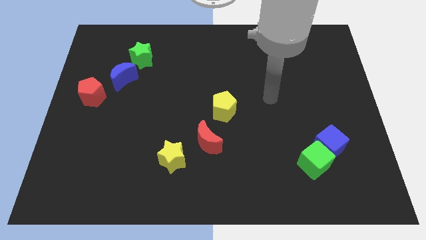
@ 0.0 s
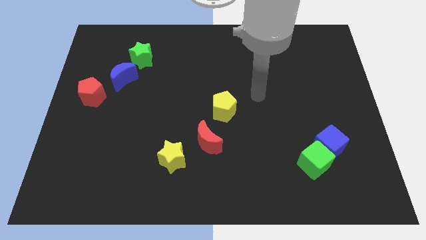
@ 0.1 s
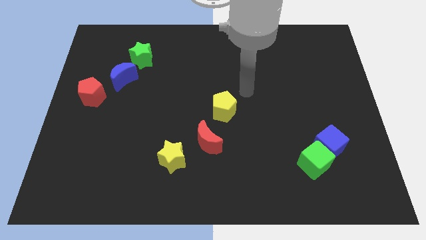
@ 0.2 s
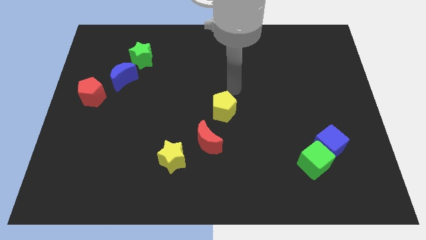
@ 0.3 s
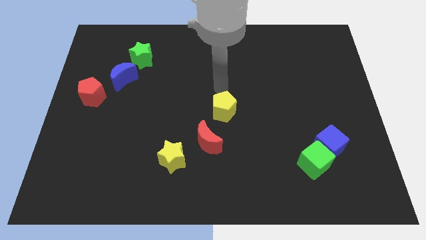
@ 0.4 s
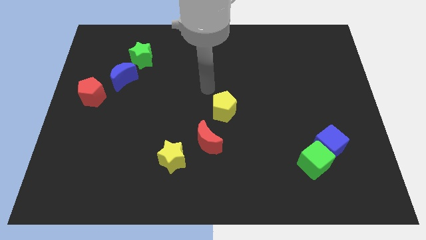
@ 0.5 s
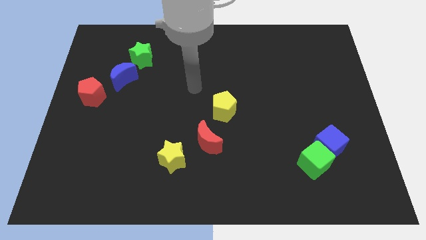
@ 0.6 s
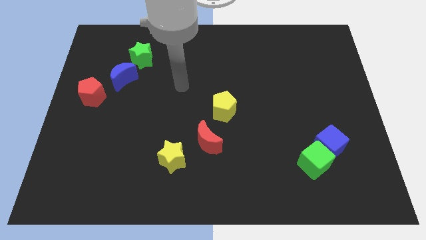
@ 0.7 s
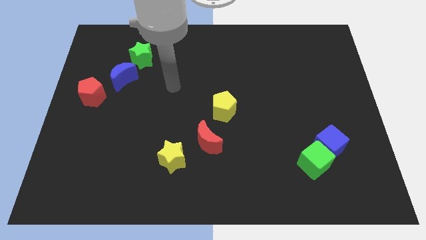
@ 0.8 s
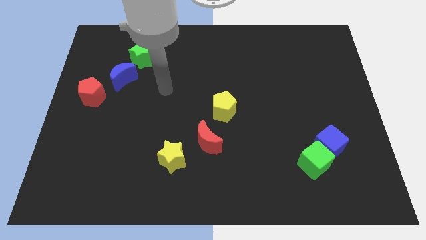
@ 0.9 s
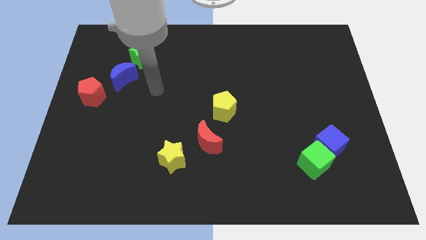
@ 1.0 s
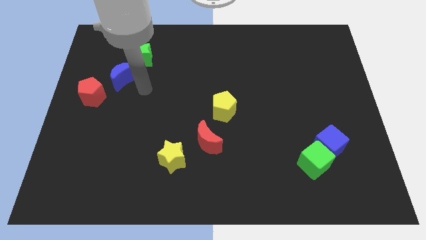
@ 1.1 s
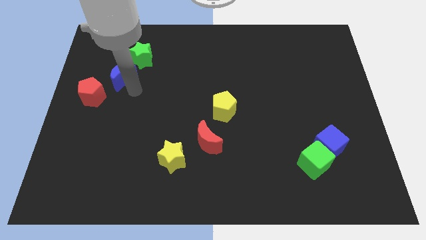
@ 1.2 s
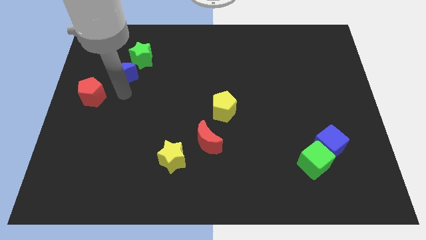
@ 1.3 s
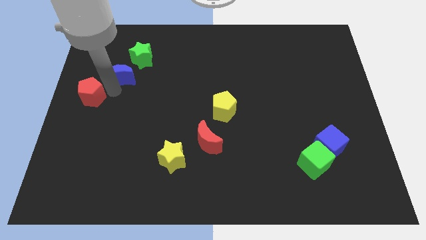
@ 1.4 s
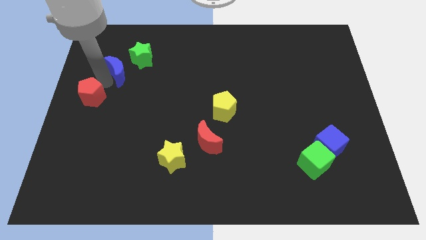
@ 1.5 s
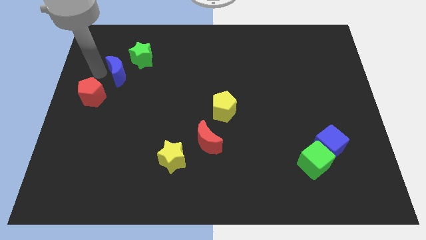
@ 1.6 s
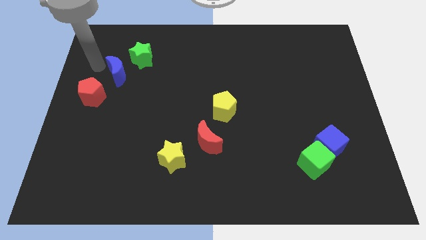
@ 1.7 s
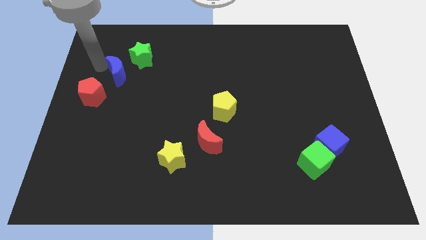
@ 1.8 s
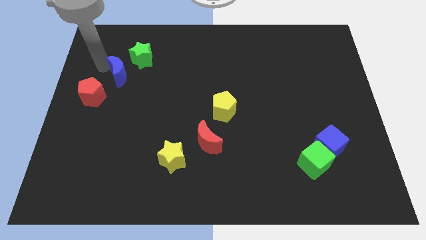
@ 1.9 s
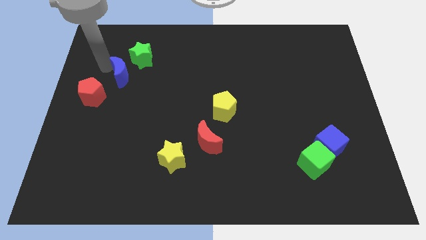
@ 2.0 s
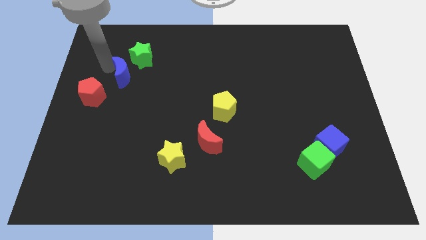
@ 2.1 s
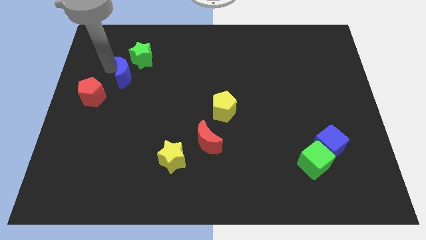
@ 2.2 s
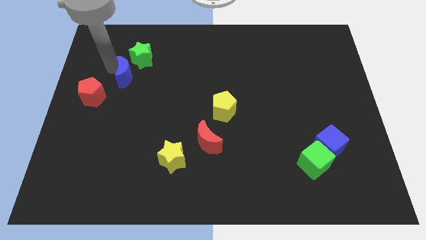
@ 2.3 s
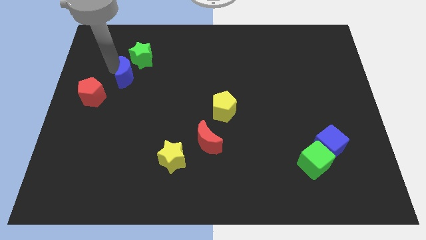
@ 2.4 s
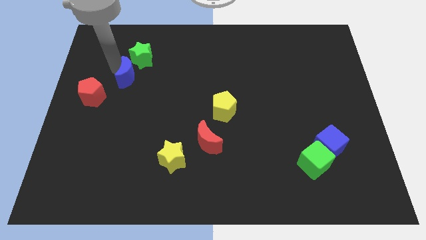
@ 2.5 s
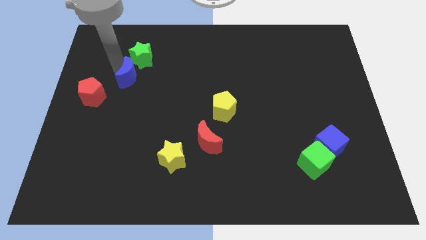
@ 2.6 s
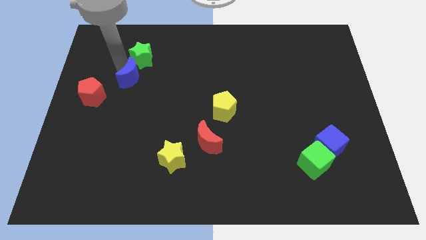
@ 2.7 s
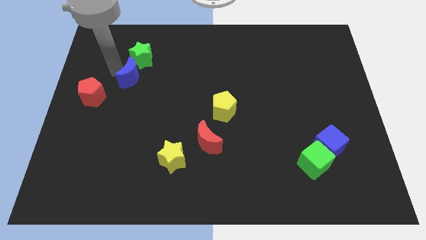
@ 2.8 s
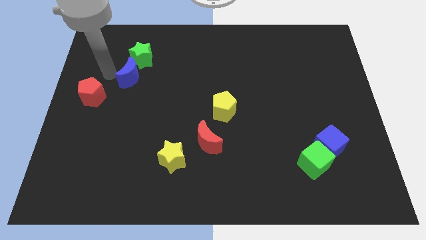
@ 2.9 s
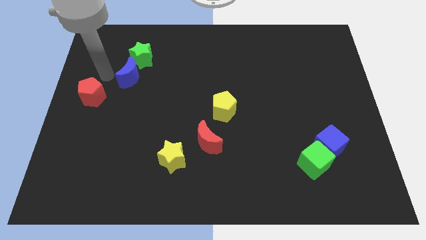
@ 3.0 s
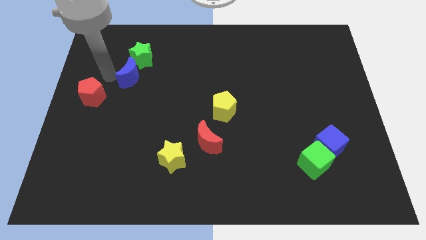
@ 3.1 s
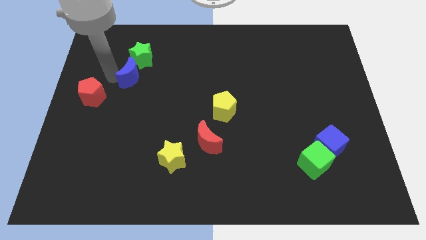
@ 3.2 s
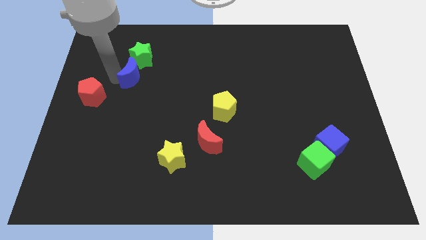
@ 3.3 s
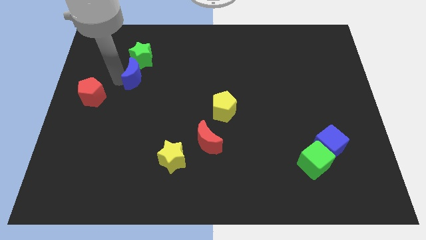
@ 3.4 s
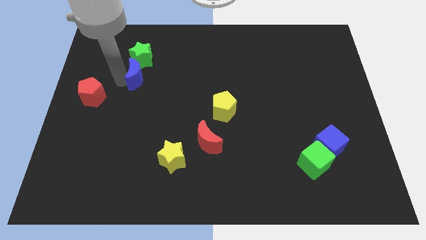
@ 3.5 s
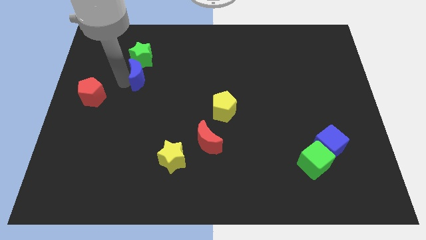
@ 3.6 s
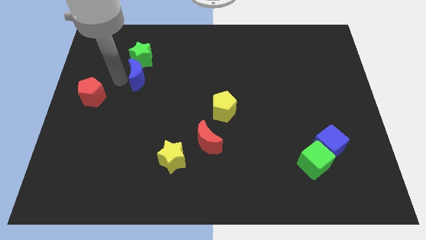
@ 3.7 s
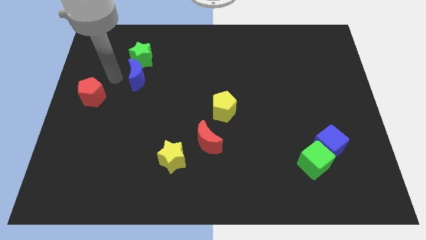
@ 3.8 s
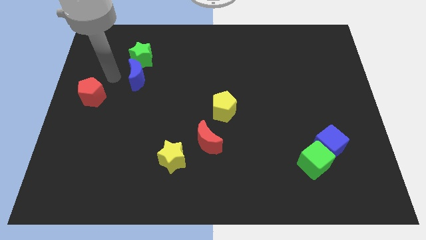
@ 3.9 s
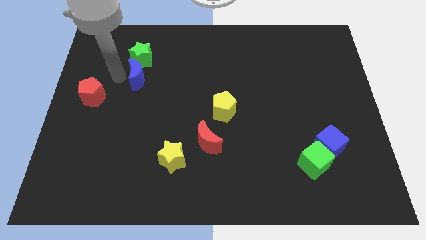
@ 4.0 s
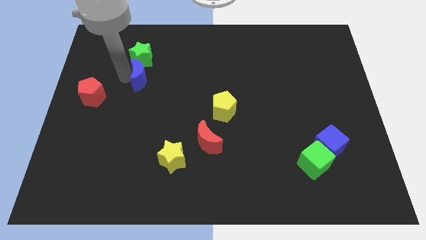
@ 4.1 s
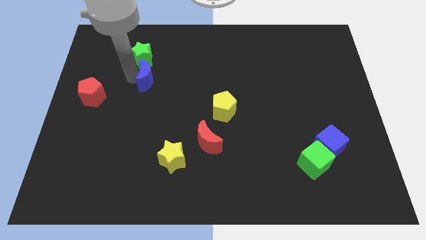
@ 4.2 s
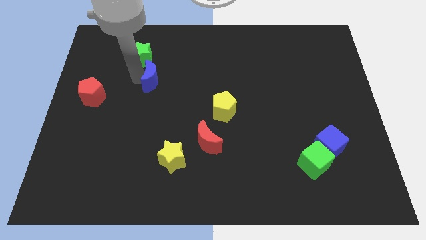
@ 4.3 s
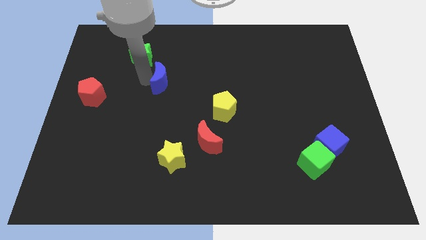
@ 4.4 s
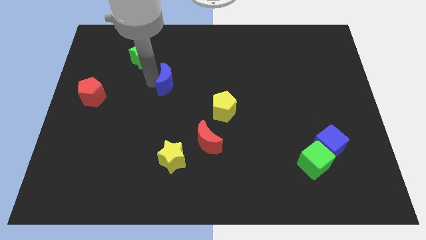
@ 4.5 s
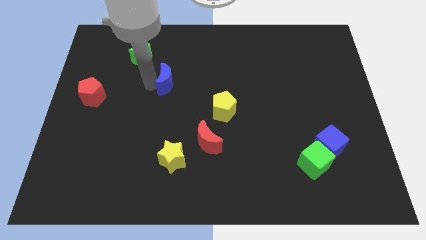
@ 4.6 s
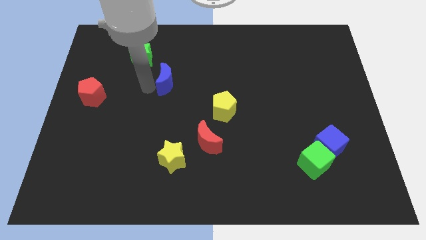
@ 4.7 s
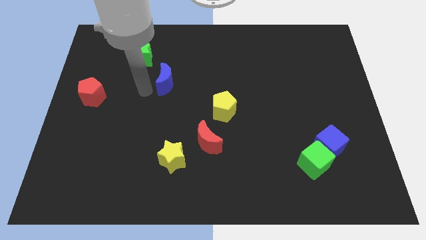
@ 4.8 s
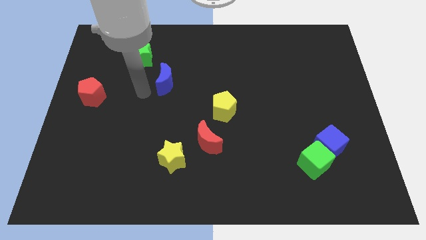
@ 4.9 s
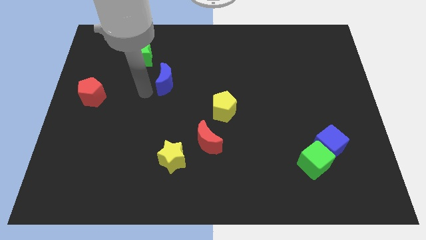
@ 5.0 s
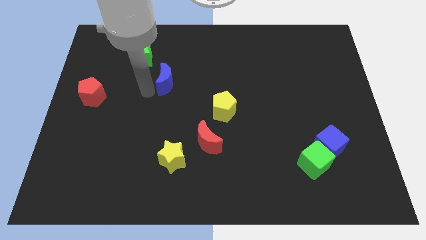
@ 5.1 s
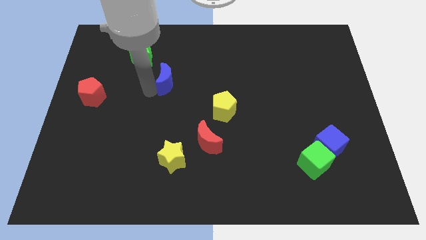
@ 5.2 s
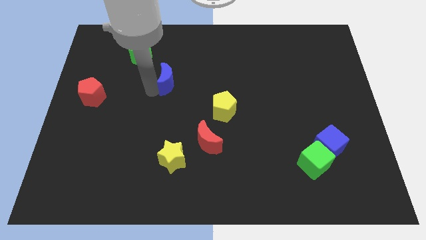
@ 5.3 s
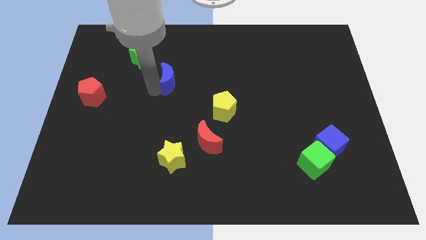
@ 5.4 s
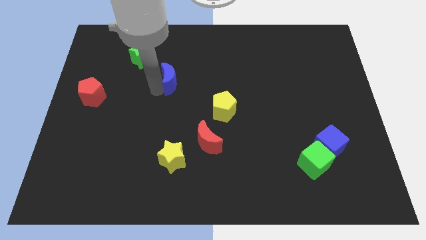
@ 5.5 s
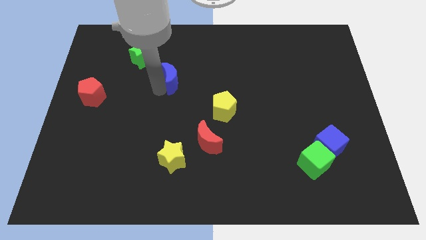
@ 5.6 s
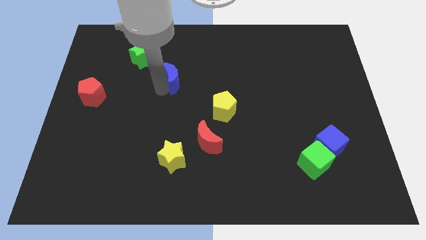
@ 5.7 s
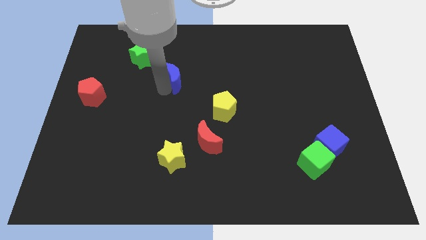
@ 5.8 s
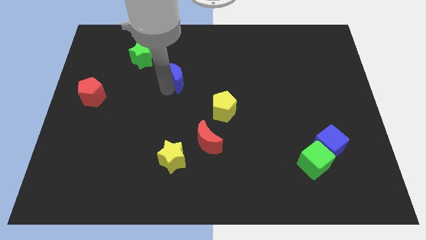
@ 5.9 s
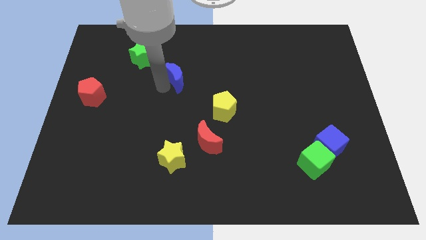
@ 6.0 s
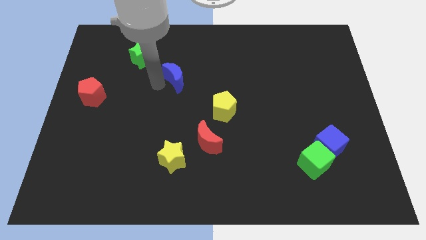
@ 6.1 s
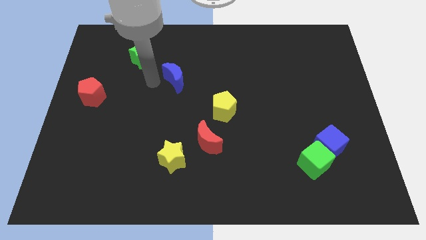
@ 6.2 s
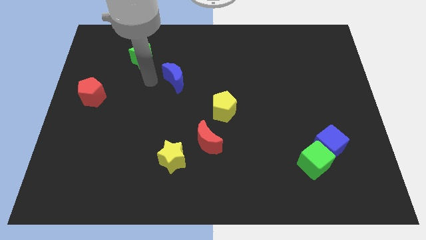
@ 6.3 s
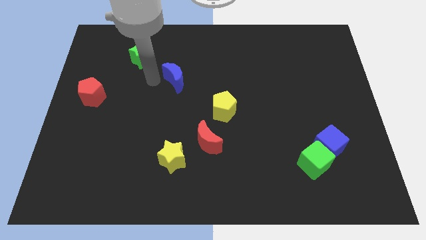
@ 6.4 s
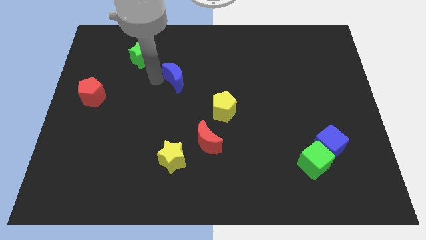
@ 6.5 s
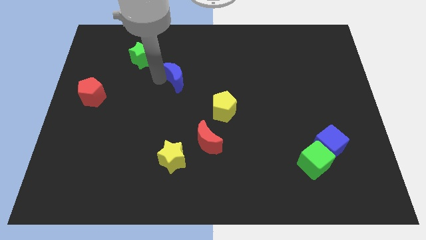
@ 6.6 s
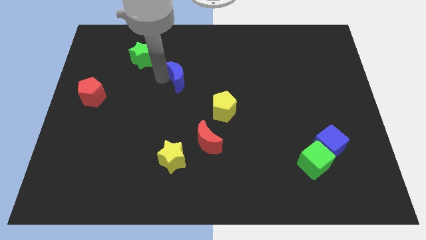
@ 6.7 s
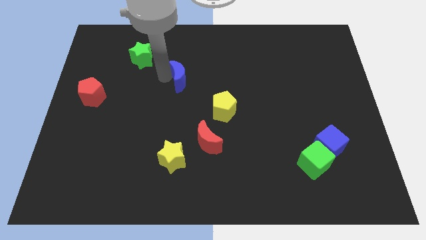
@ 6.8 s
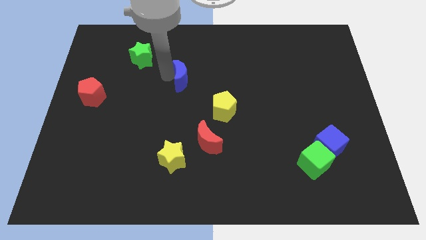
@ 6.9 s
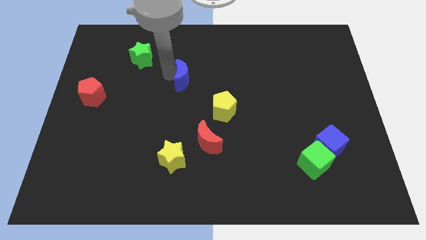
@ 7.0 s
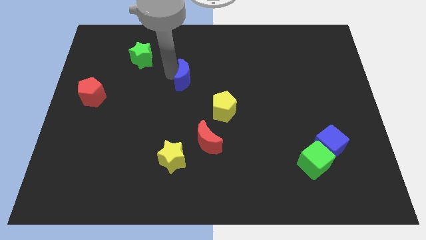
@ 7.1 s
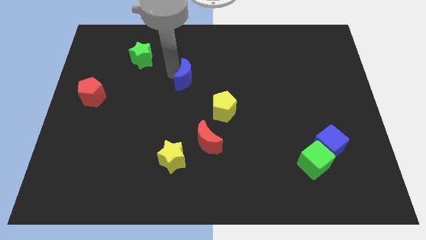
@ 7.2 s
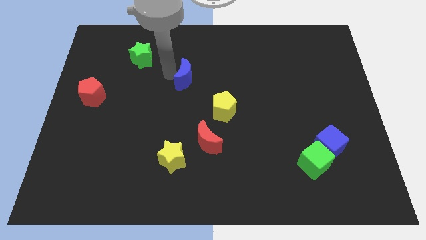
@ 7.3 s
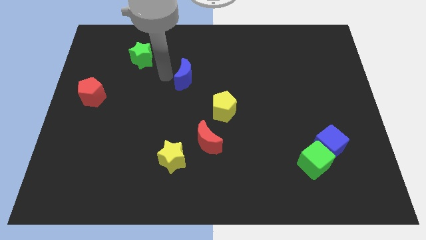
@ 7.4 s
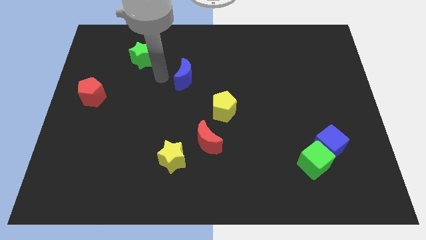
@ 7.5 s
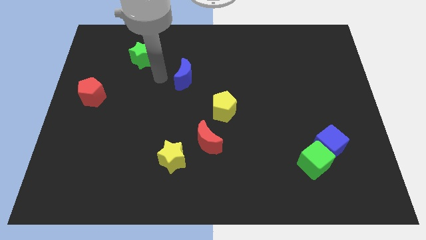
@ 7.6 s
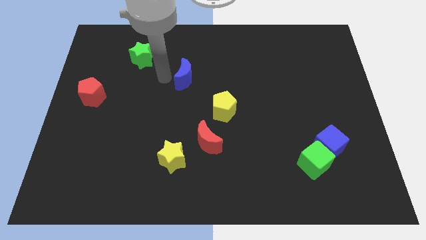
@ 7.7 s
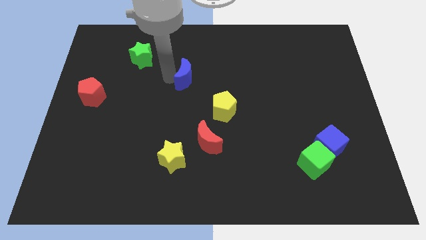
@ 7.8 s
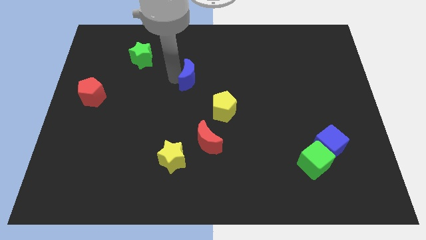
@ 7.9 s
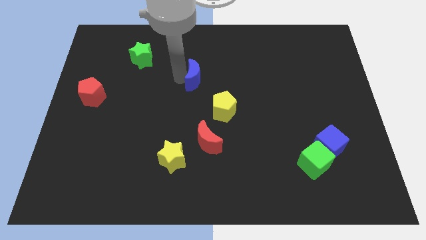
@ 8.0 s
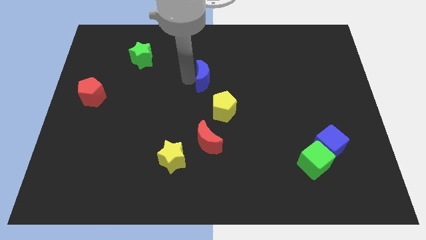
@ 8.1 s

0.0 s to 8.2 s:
move the blue moon right
